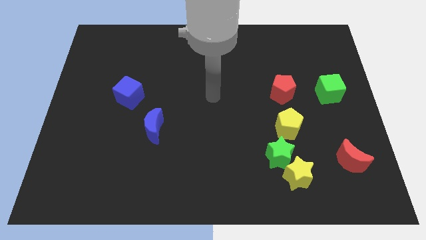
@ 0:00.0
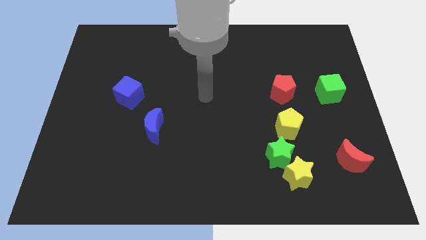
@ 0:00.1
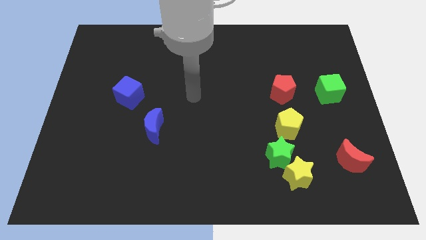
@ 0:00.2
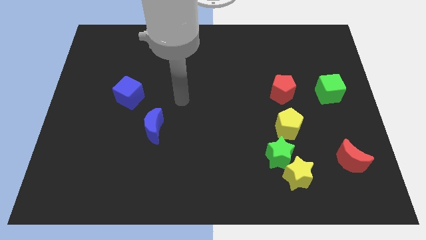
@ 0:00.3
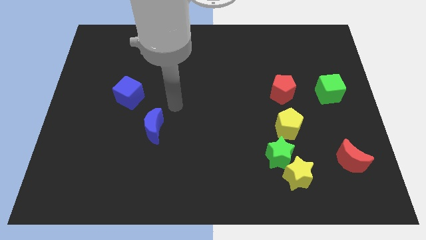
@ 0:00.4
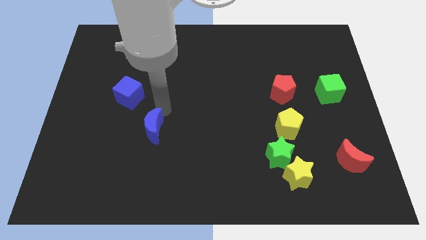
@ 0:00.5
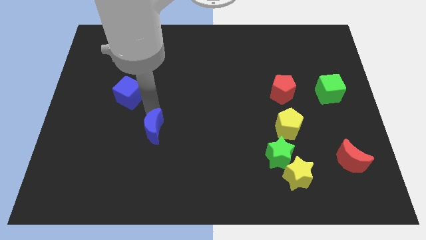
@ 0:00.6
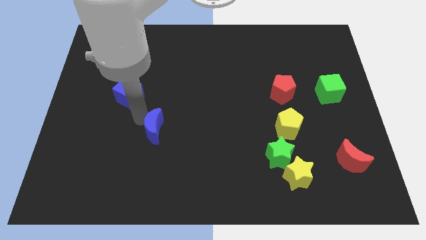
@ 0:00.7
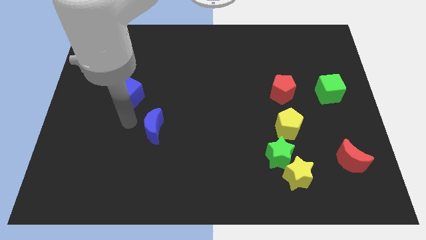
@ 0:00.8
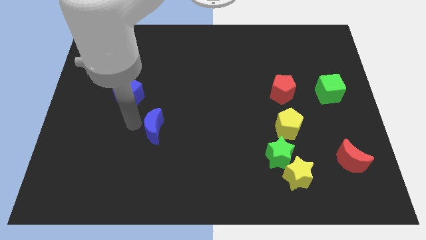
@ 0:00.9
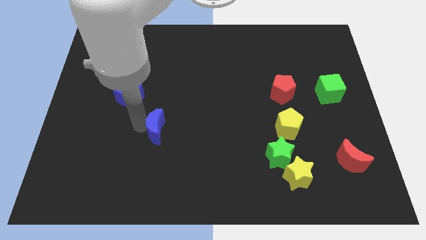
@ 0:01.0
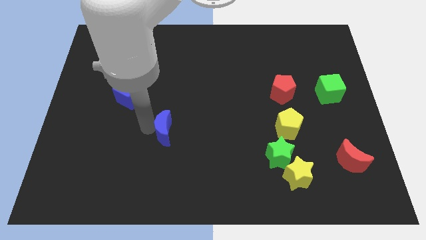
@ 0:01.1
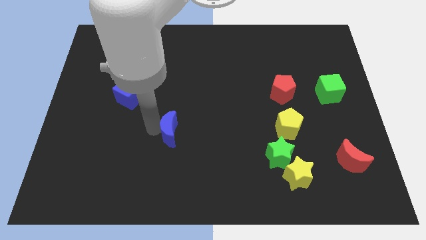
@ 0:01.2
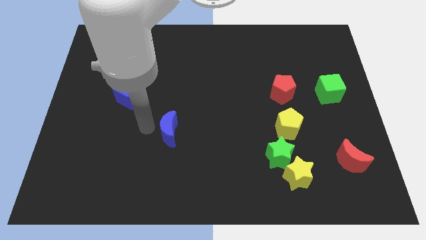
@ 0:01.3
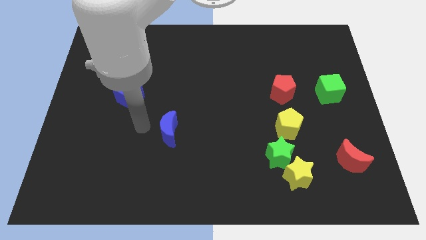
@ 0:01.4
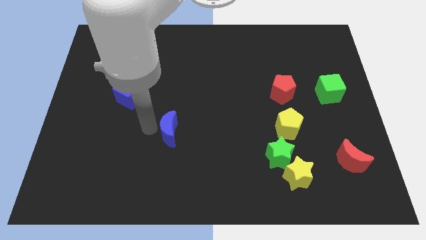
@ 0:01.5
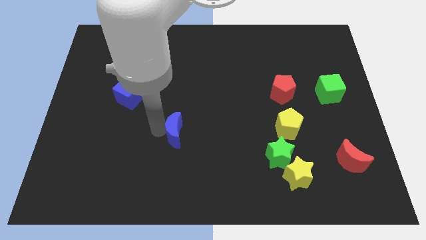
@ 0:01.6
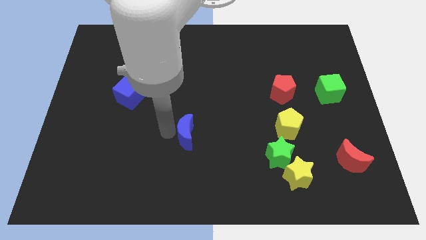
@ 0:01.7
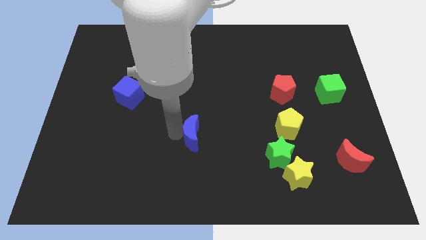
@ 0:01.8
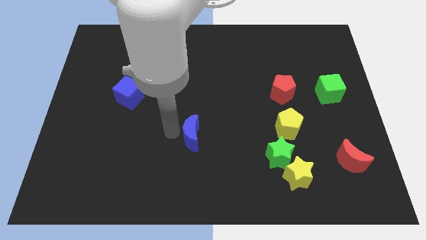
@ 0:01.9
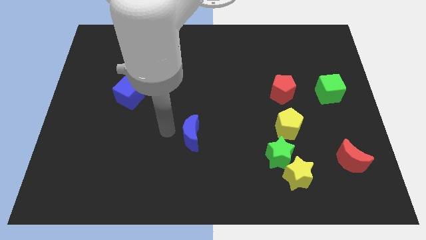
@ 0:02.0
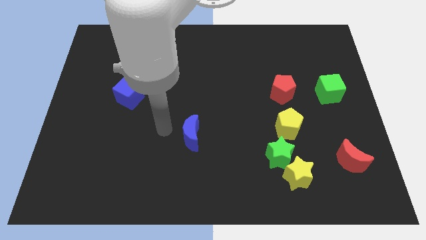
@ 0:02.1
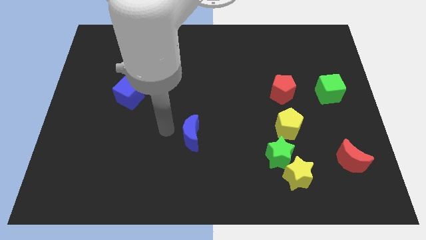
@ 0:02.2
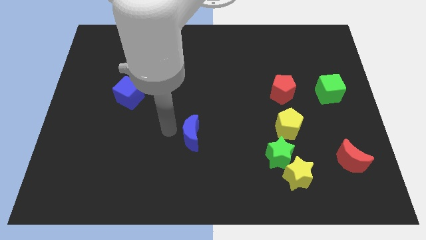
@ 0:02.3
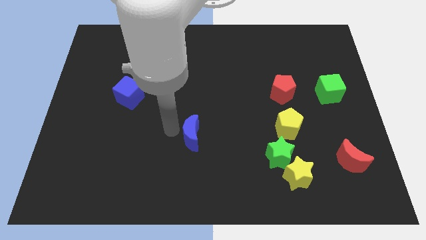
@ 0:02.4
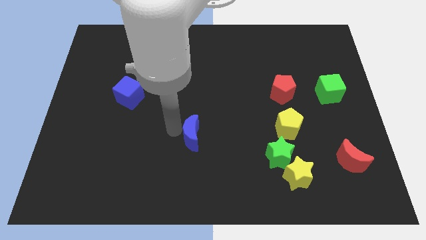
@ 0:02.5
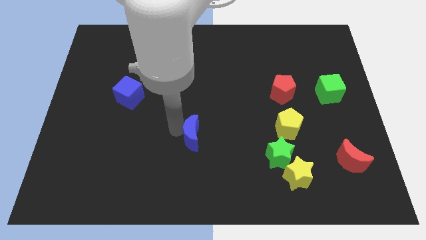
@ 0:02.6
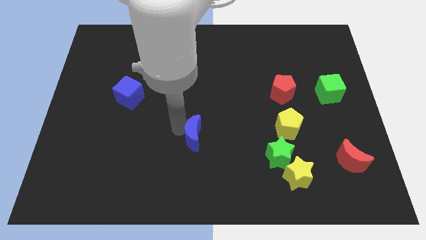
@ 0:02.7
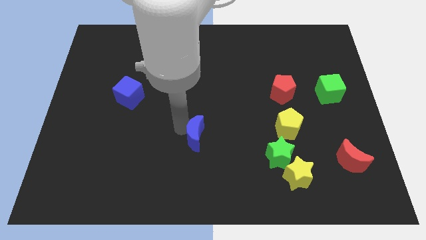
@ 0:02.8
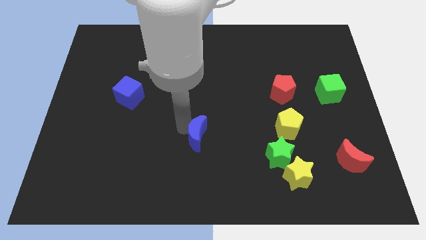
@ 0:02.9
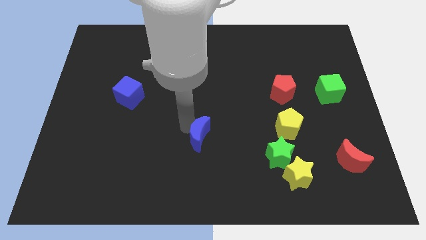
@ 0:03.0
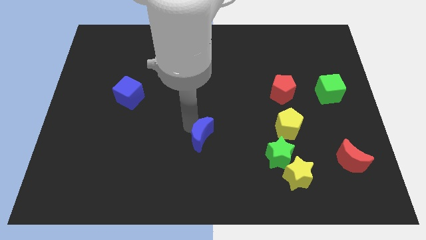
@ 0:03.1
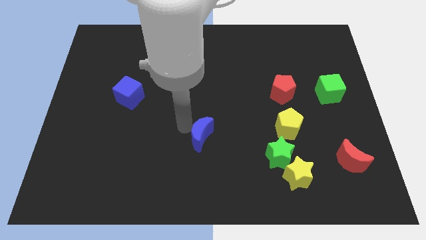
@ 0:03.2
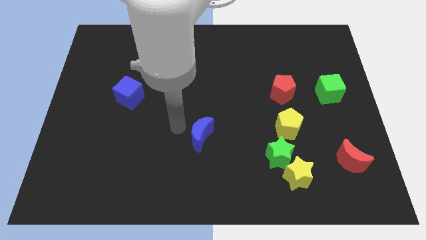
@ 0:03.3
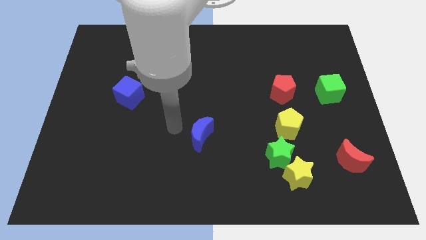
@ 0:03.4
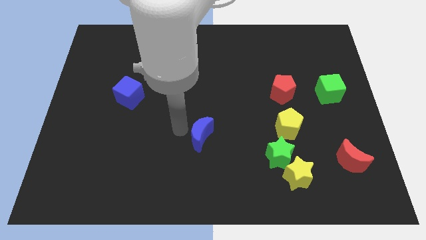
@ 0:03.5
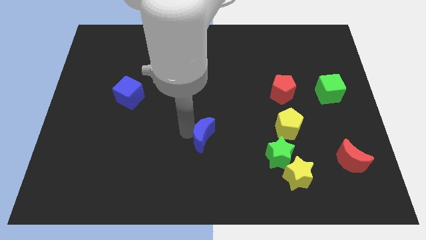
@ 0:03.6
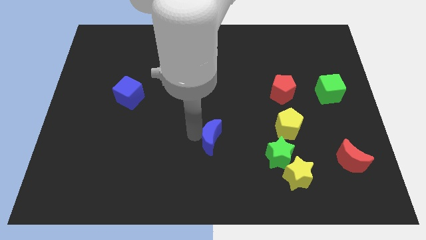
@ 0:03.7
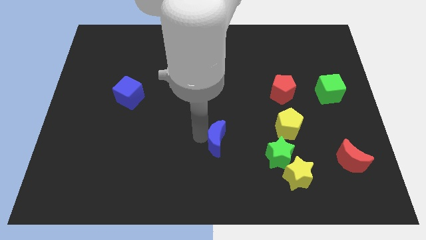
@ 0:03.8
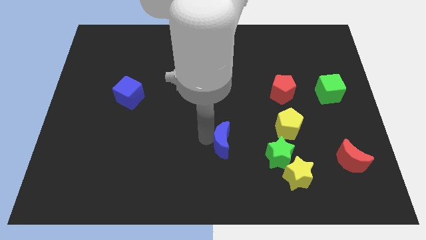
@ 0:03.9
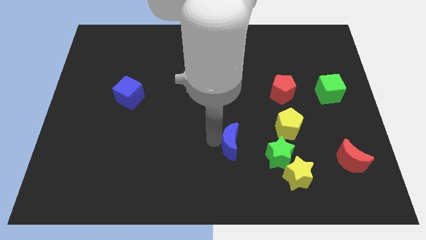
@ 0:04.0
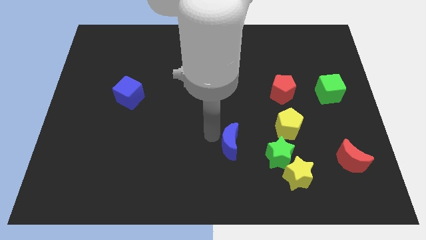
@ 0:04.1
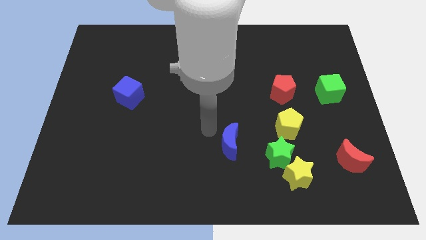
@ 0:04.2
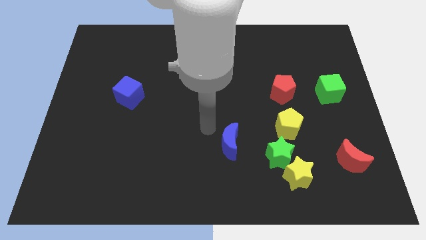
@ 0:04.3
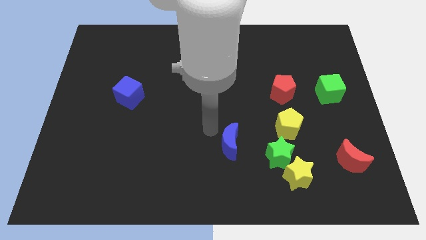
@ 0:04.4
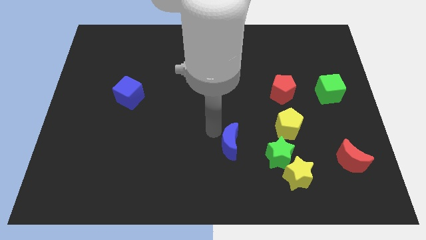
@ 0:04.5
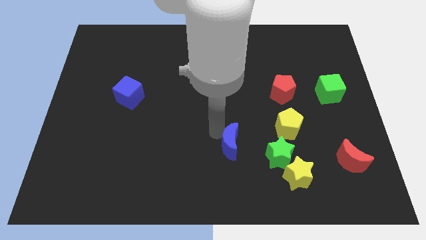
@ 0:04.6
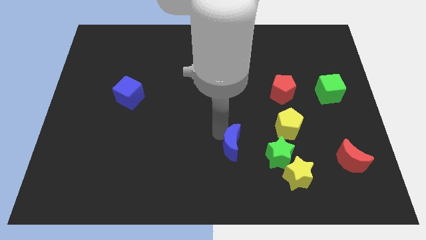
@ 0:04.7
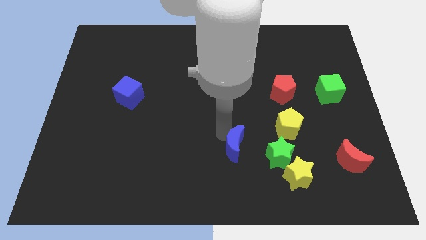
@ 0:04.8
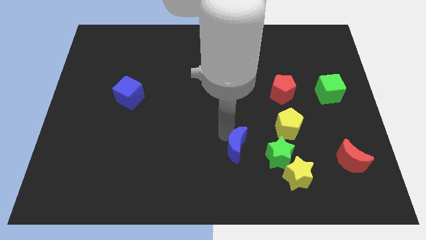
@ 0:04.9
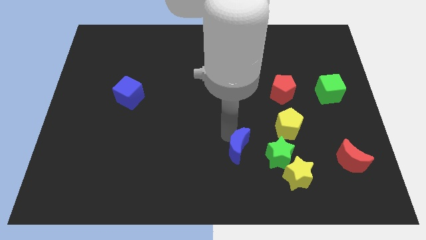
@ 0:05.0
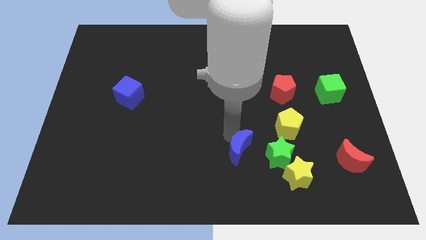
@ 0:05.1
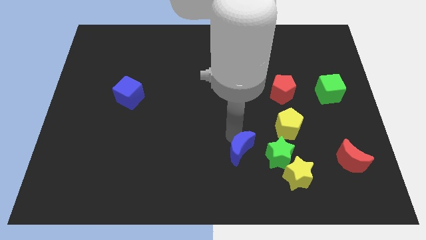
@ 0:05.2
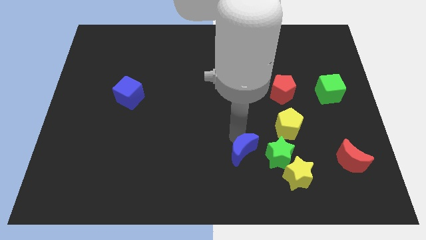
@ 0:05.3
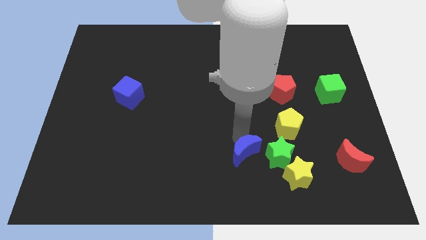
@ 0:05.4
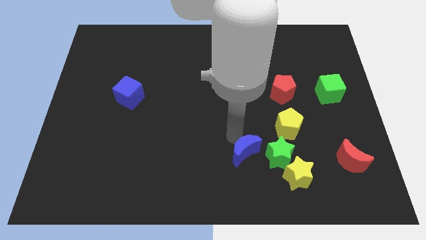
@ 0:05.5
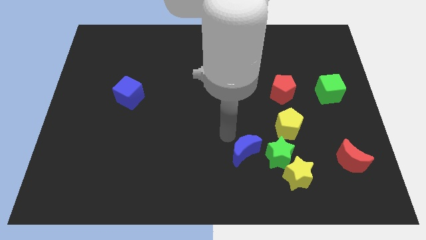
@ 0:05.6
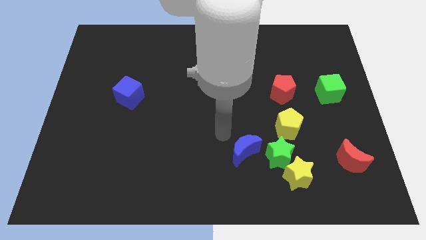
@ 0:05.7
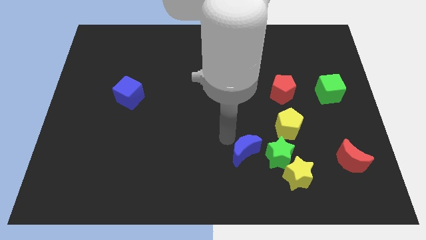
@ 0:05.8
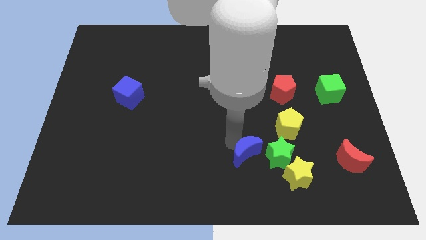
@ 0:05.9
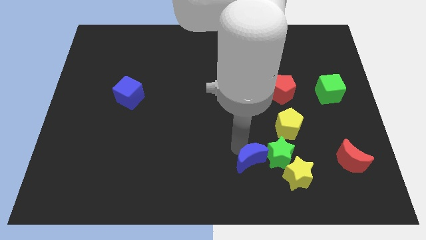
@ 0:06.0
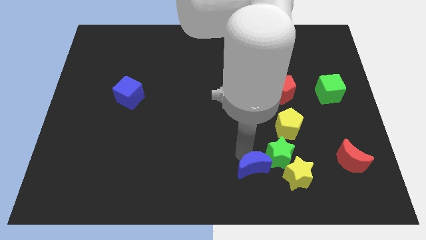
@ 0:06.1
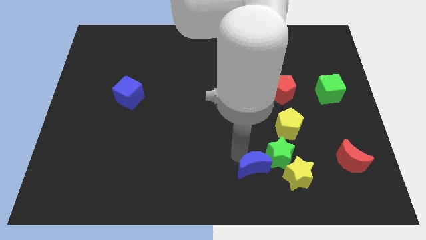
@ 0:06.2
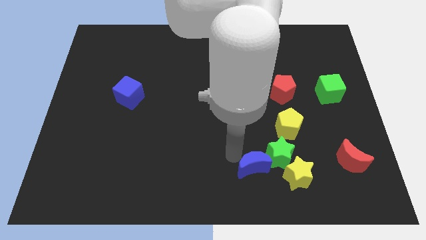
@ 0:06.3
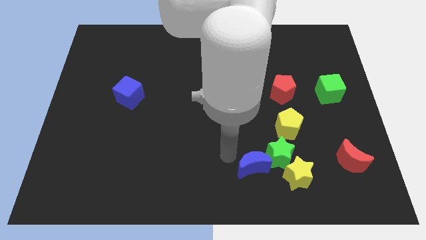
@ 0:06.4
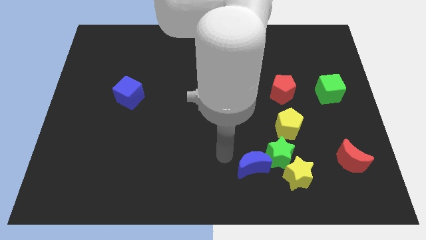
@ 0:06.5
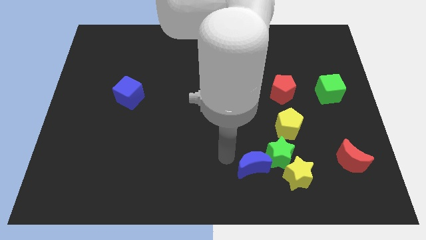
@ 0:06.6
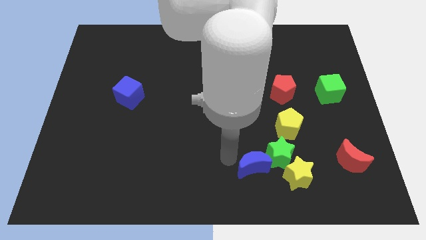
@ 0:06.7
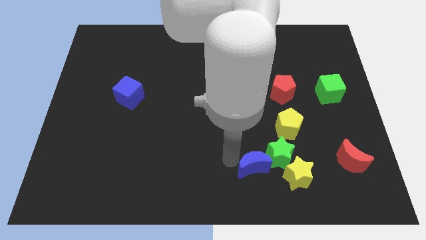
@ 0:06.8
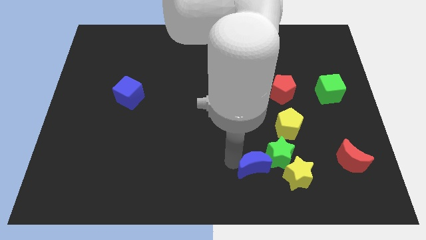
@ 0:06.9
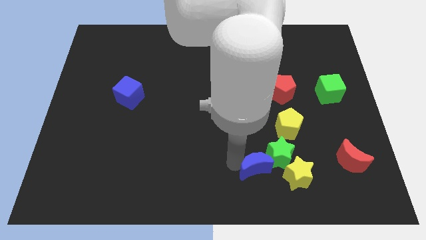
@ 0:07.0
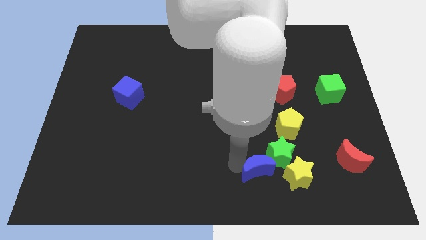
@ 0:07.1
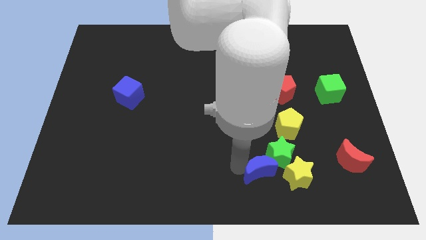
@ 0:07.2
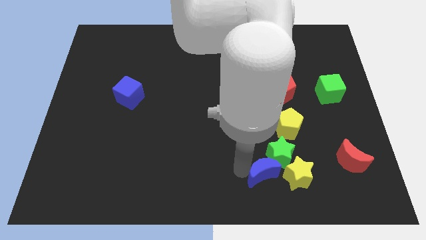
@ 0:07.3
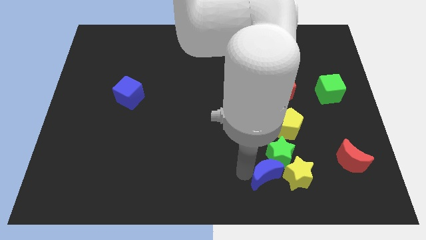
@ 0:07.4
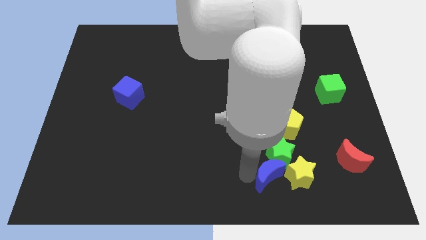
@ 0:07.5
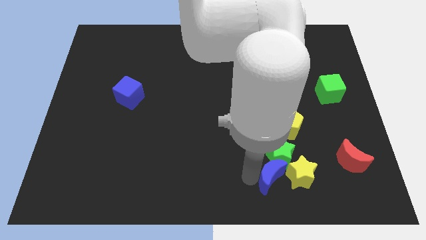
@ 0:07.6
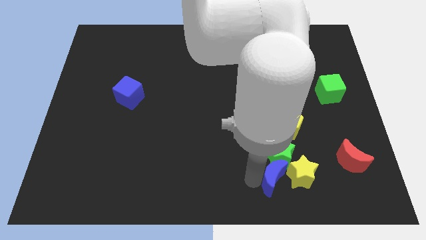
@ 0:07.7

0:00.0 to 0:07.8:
slide the blue moon to the yellow star
